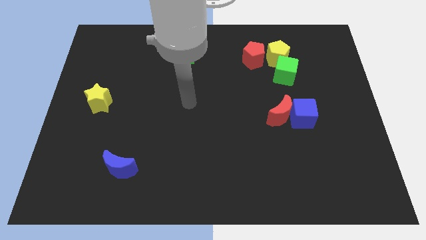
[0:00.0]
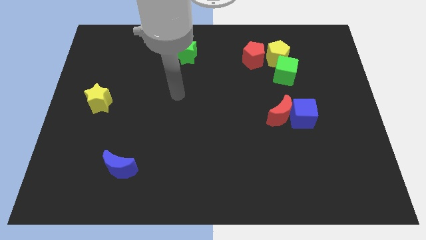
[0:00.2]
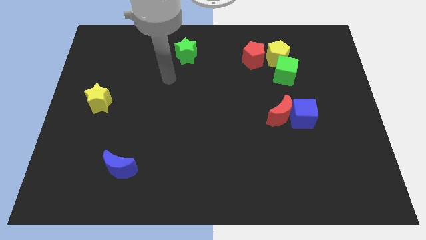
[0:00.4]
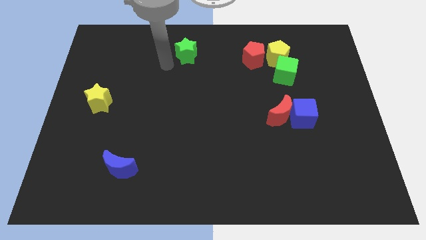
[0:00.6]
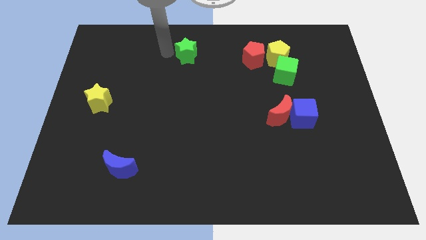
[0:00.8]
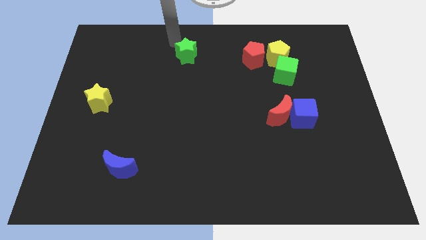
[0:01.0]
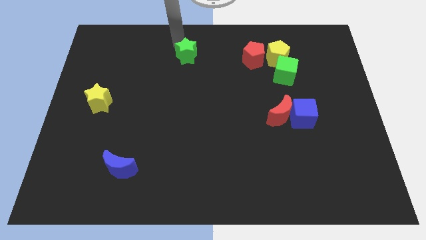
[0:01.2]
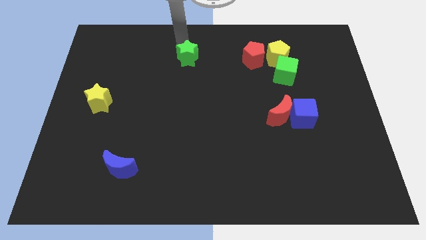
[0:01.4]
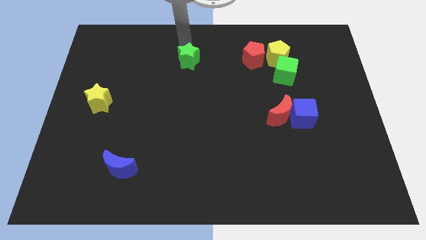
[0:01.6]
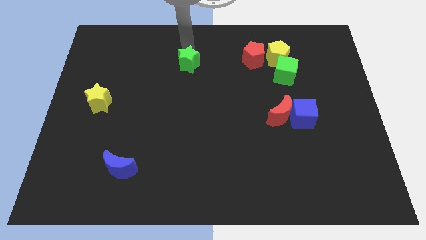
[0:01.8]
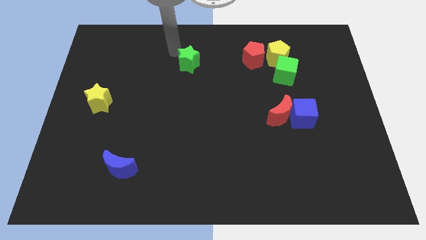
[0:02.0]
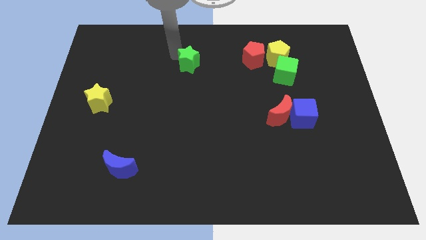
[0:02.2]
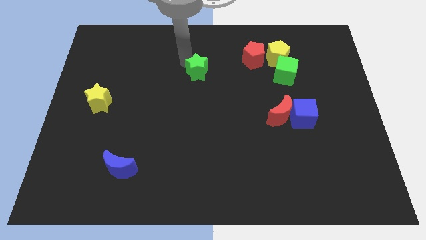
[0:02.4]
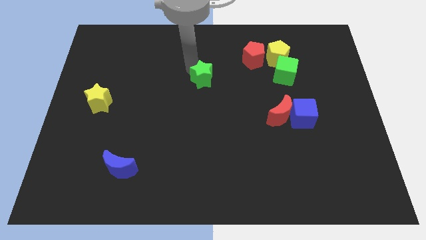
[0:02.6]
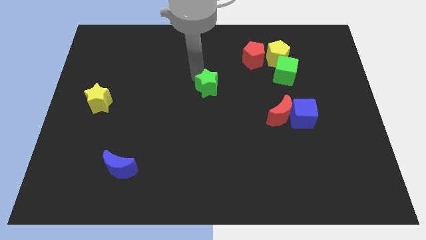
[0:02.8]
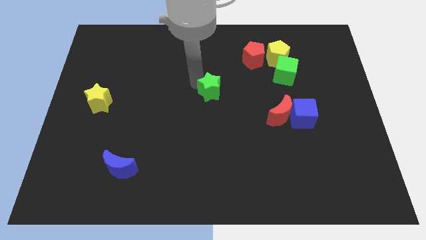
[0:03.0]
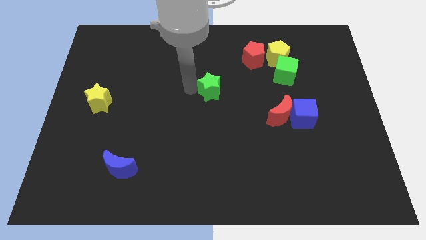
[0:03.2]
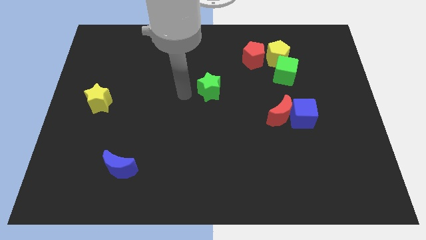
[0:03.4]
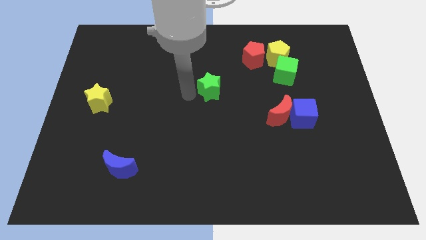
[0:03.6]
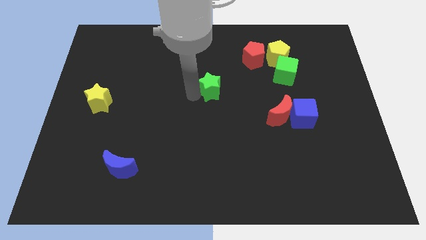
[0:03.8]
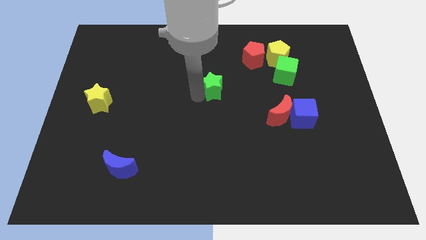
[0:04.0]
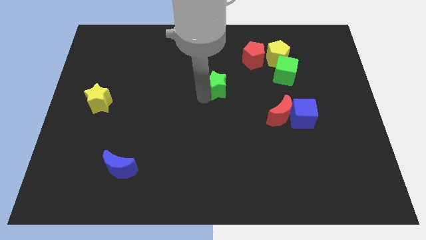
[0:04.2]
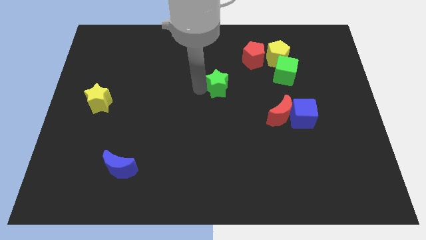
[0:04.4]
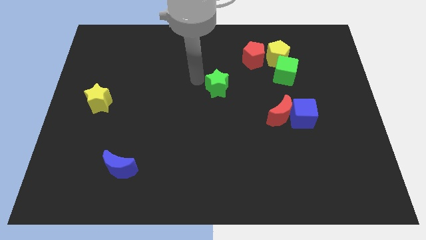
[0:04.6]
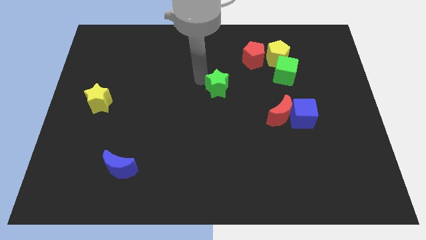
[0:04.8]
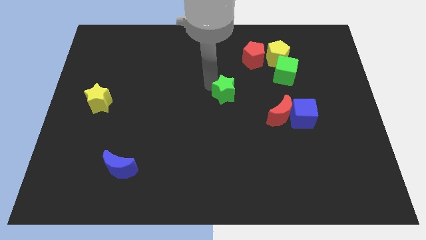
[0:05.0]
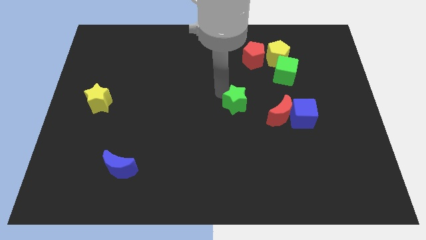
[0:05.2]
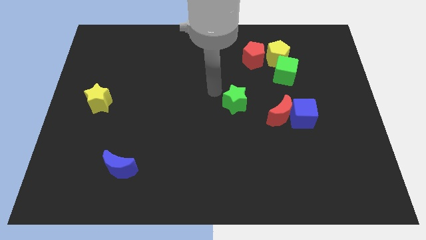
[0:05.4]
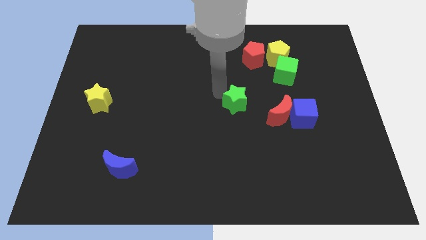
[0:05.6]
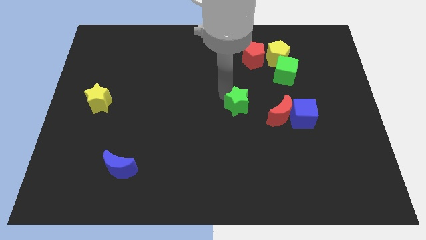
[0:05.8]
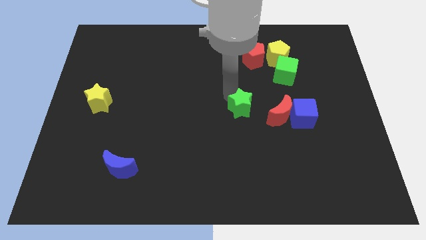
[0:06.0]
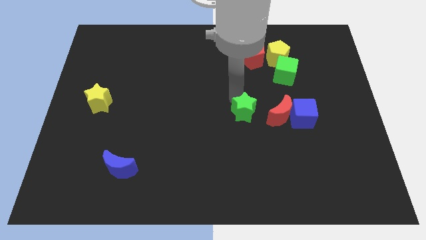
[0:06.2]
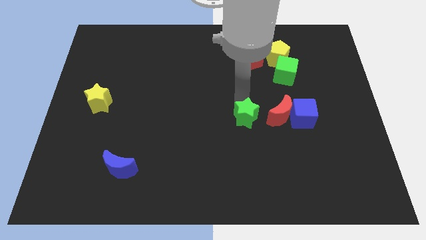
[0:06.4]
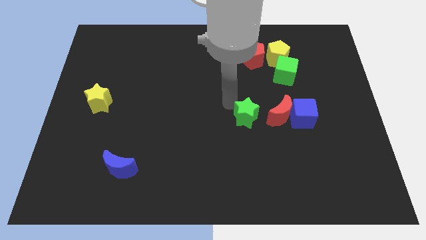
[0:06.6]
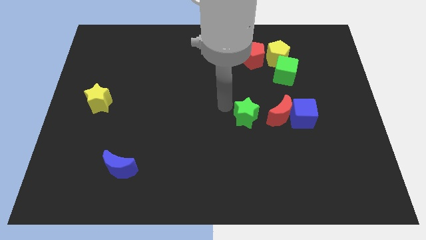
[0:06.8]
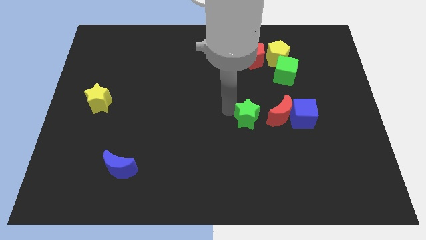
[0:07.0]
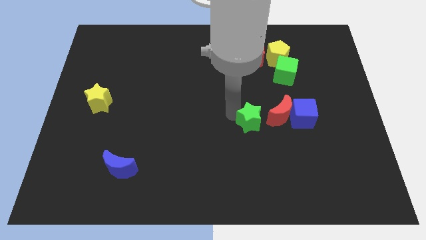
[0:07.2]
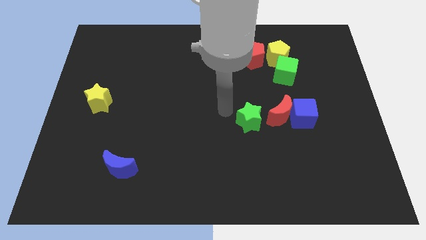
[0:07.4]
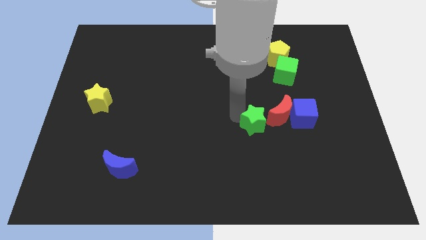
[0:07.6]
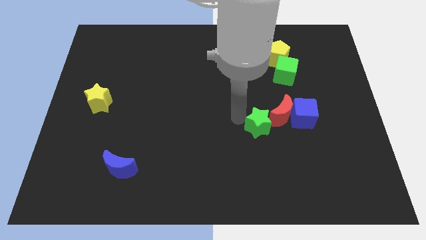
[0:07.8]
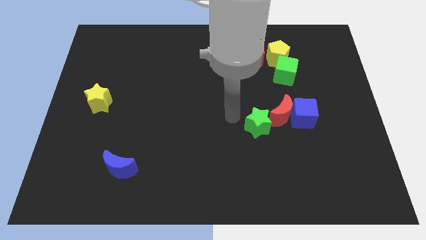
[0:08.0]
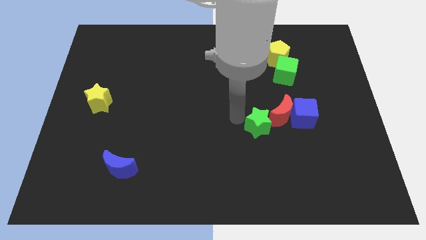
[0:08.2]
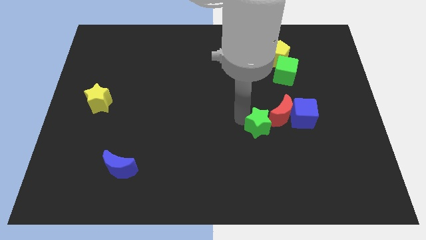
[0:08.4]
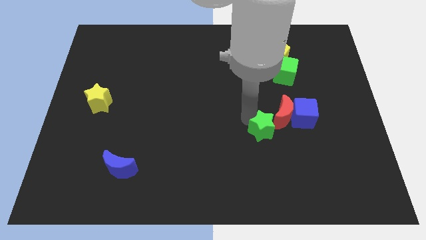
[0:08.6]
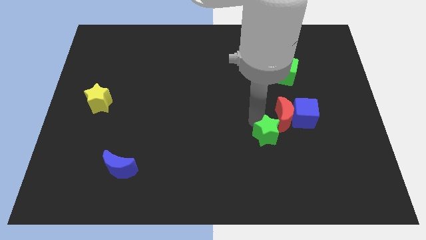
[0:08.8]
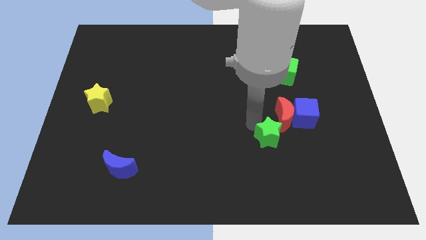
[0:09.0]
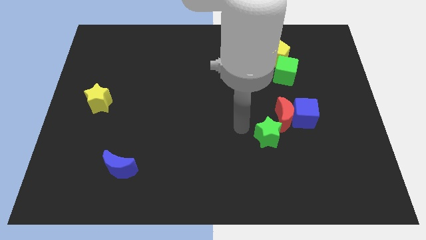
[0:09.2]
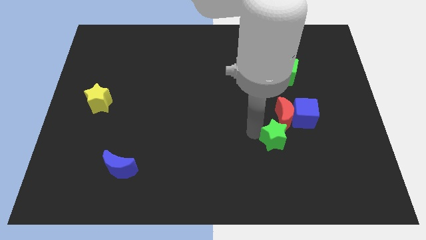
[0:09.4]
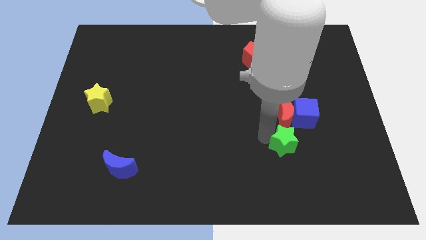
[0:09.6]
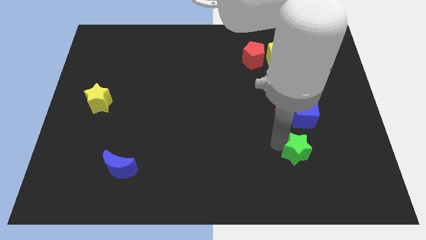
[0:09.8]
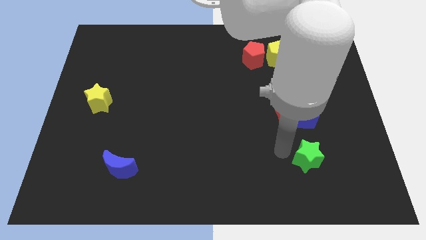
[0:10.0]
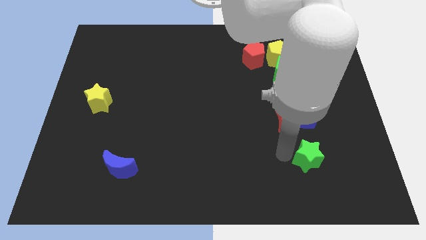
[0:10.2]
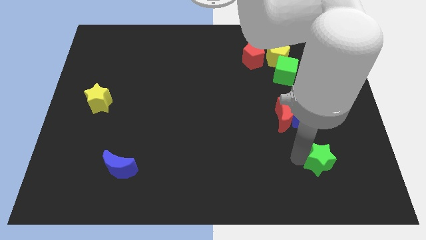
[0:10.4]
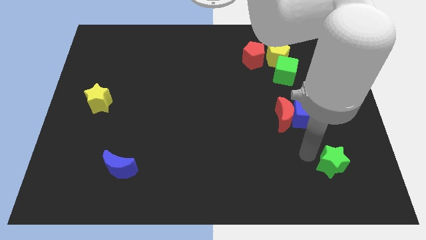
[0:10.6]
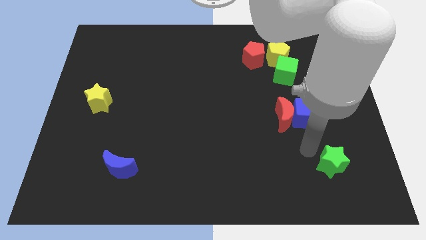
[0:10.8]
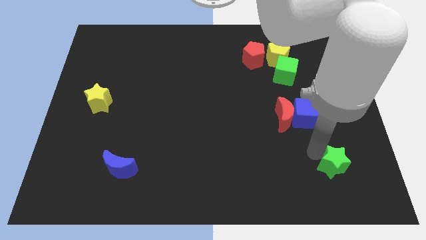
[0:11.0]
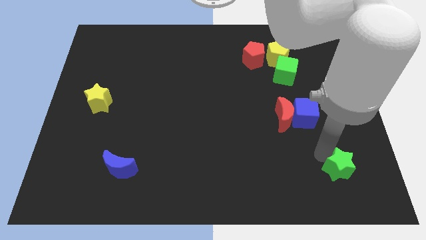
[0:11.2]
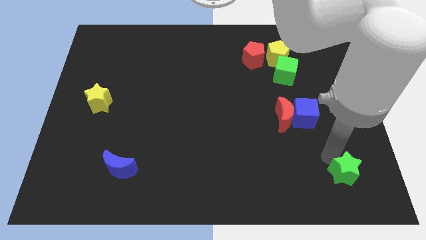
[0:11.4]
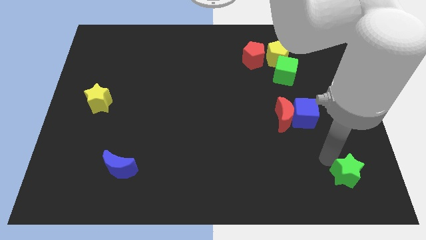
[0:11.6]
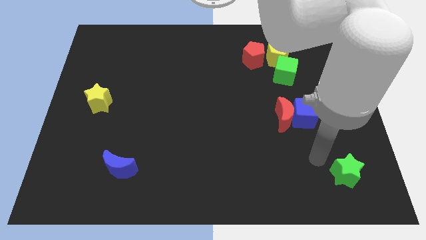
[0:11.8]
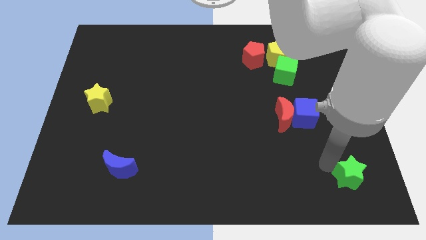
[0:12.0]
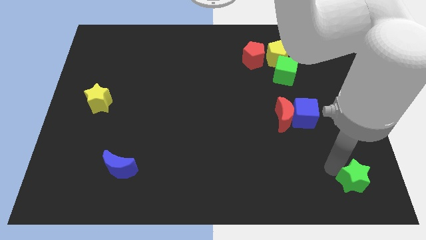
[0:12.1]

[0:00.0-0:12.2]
push the green star to the bottom right corner
